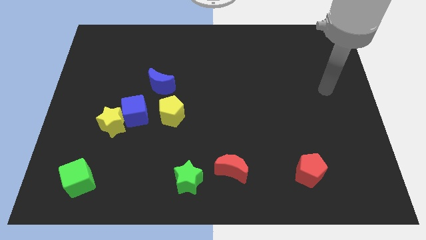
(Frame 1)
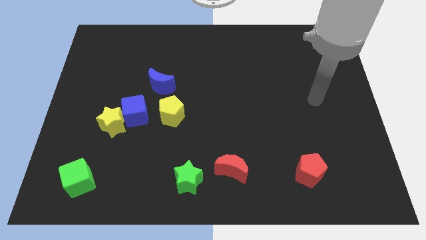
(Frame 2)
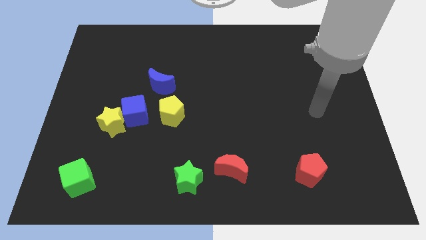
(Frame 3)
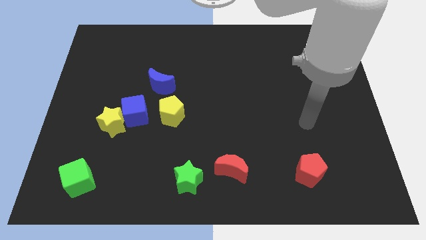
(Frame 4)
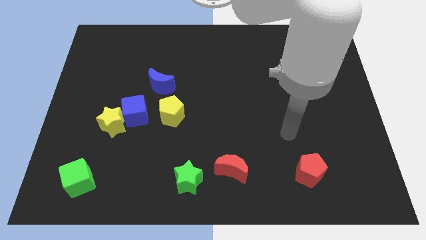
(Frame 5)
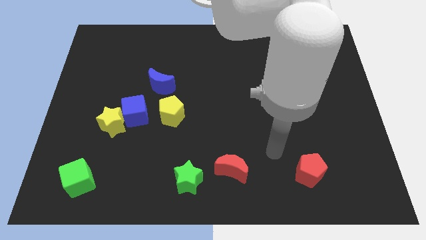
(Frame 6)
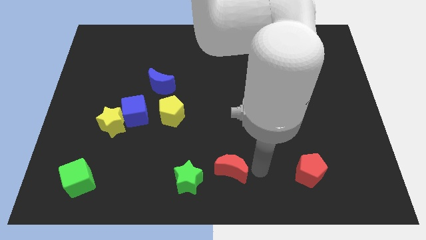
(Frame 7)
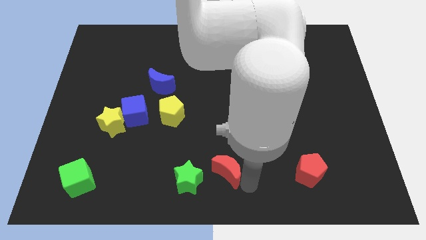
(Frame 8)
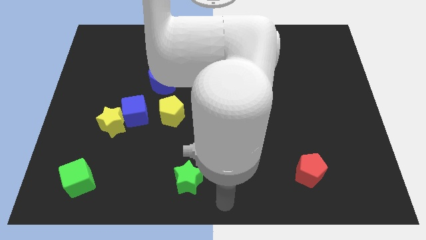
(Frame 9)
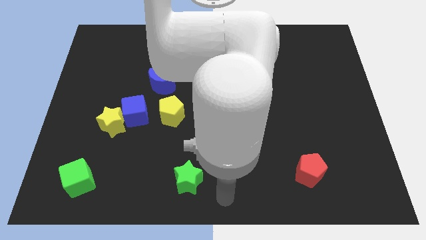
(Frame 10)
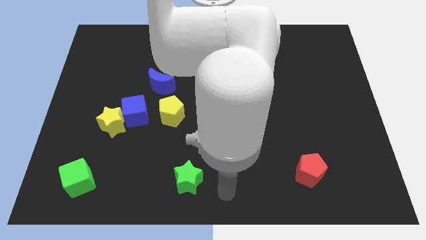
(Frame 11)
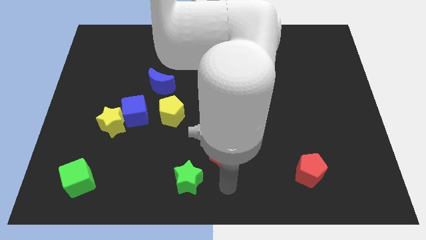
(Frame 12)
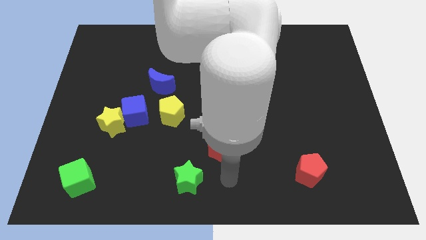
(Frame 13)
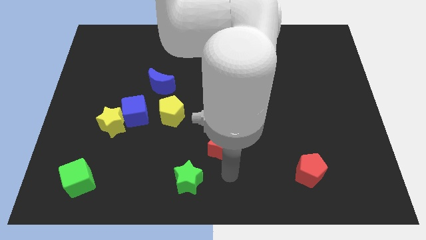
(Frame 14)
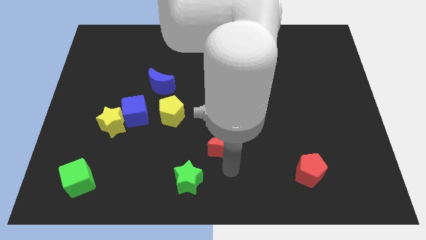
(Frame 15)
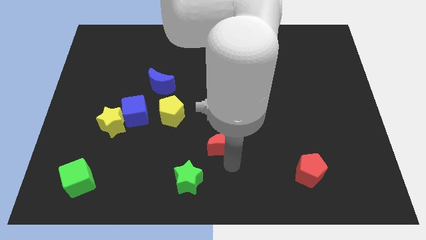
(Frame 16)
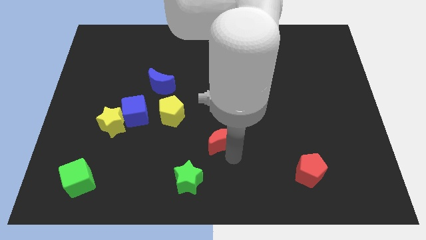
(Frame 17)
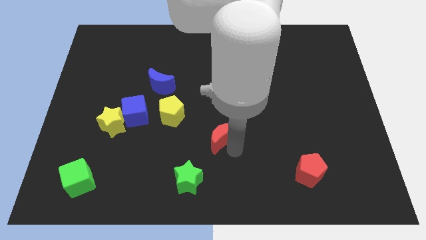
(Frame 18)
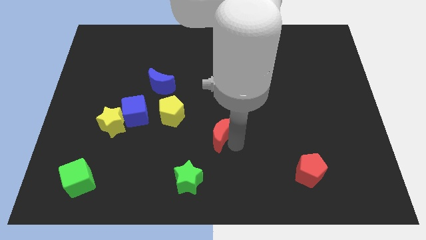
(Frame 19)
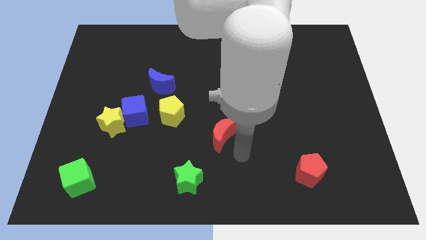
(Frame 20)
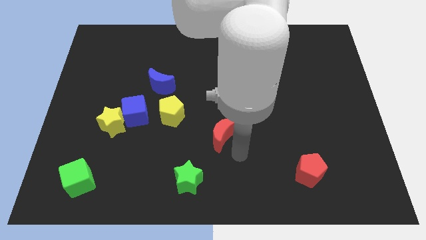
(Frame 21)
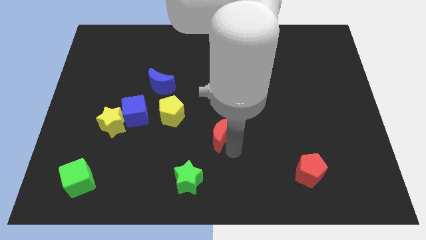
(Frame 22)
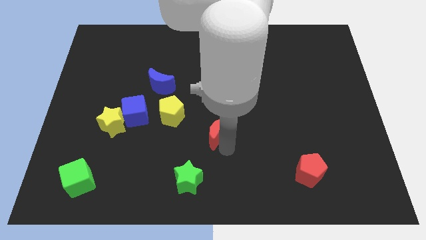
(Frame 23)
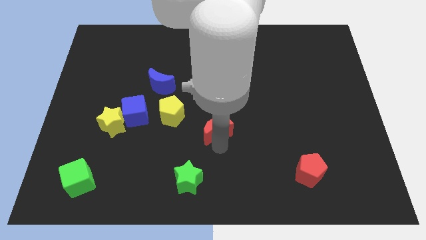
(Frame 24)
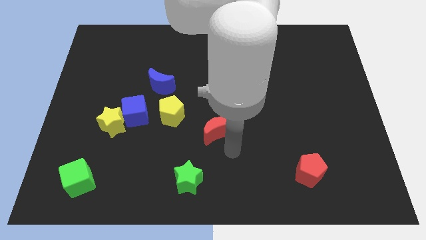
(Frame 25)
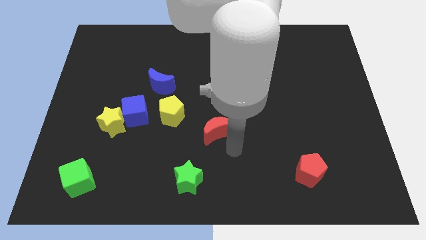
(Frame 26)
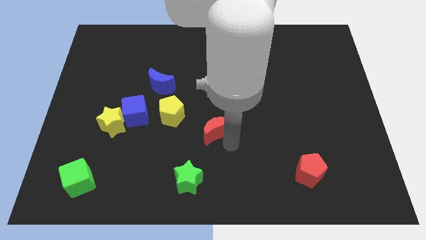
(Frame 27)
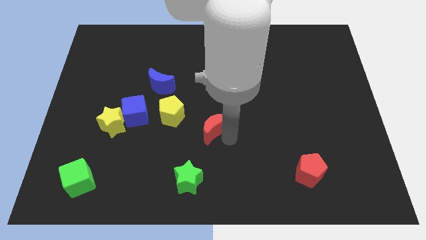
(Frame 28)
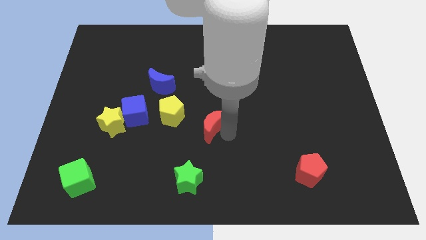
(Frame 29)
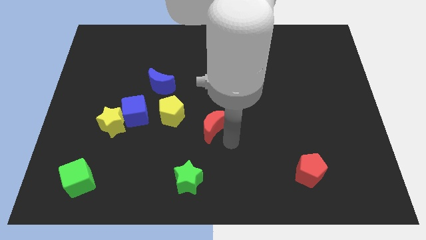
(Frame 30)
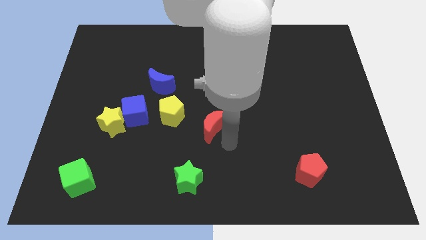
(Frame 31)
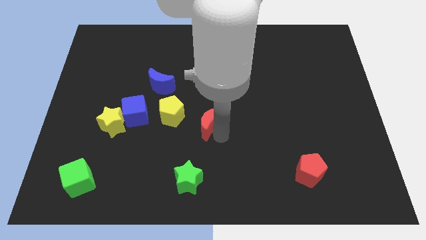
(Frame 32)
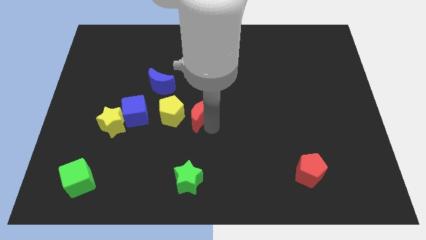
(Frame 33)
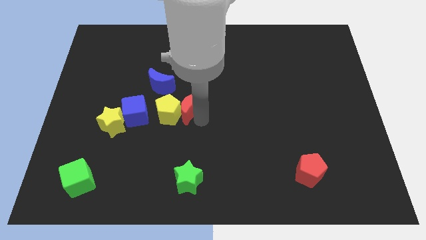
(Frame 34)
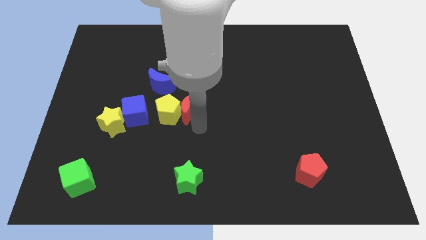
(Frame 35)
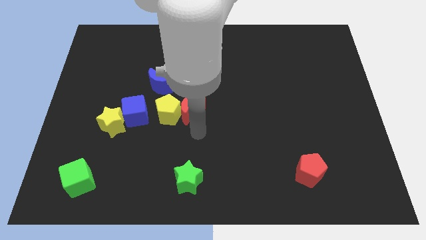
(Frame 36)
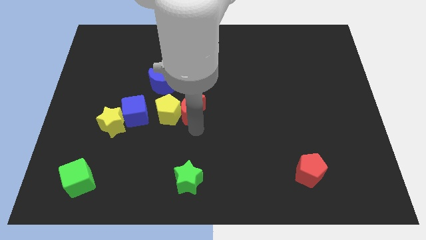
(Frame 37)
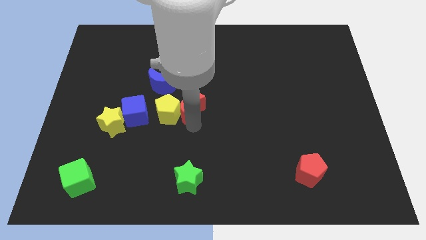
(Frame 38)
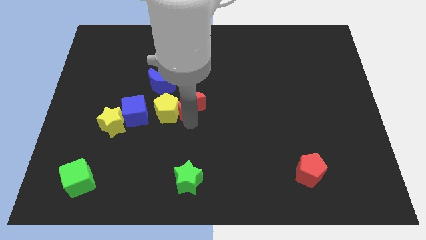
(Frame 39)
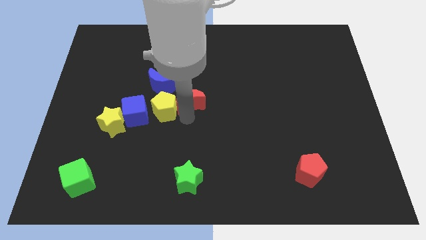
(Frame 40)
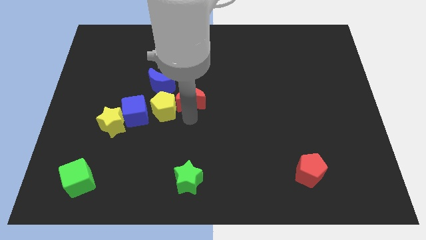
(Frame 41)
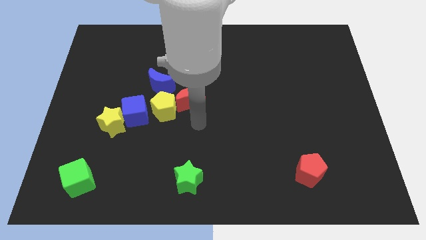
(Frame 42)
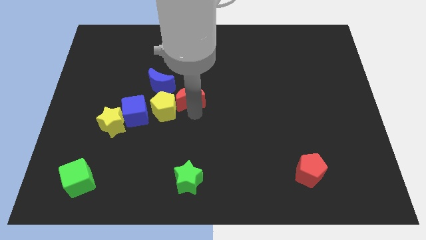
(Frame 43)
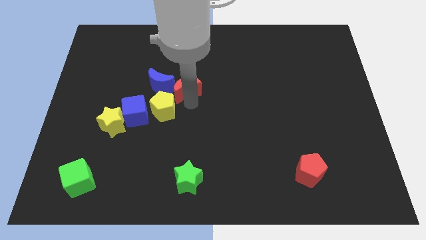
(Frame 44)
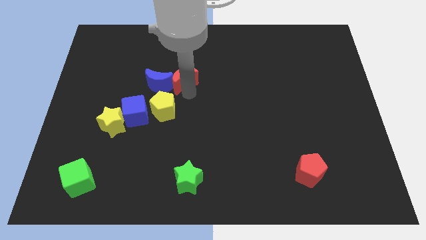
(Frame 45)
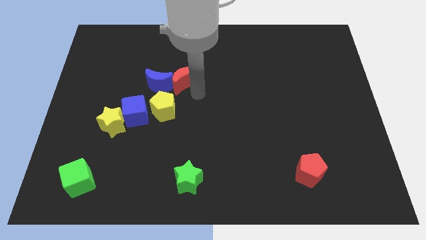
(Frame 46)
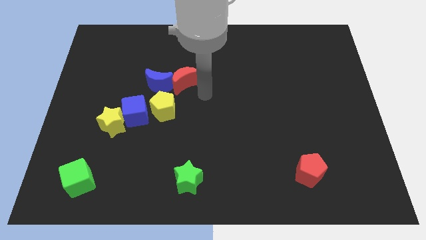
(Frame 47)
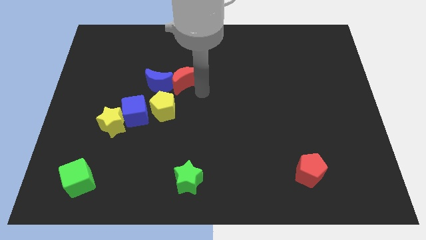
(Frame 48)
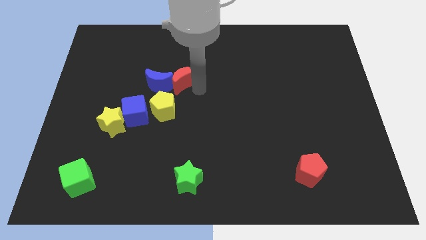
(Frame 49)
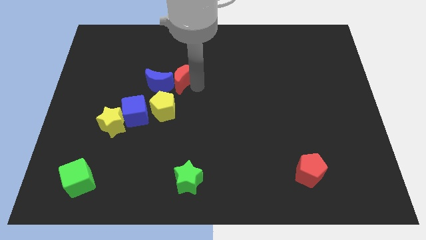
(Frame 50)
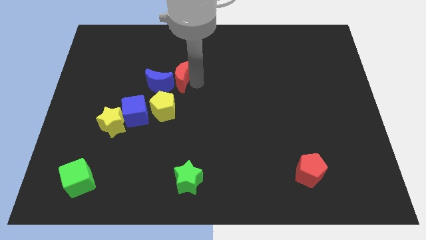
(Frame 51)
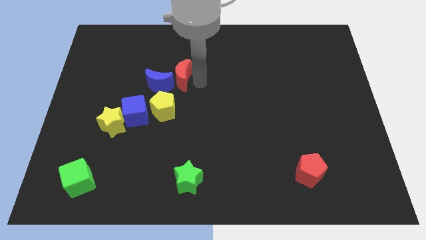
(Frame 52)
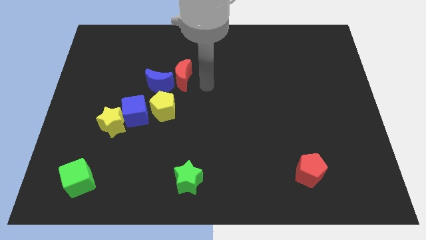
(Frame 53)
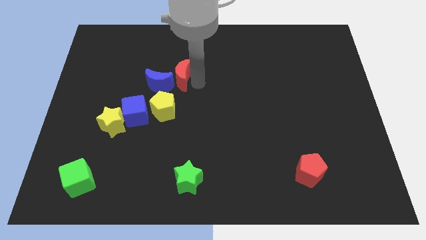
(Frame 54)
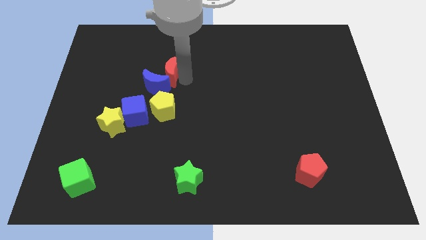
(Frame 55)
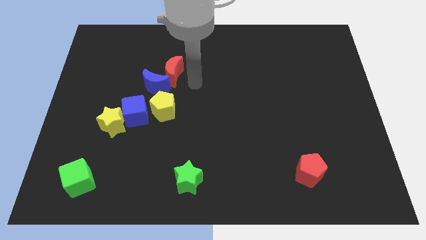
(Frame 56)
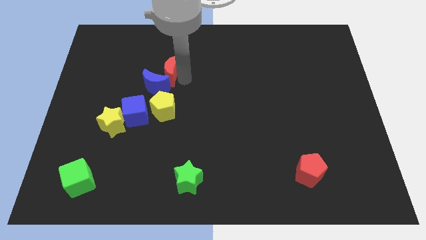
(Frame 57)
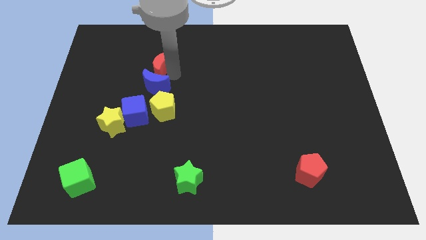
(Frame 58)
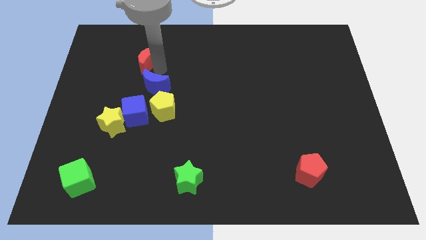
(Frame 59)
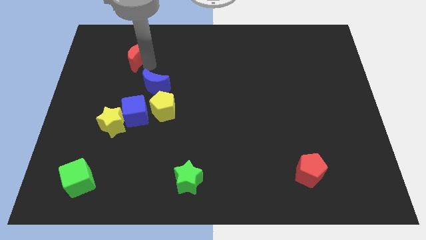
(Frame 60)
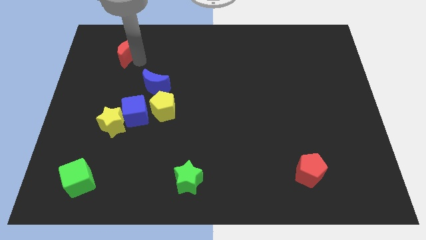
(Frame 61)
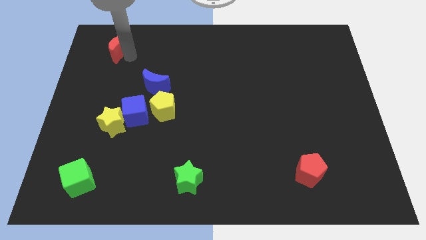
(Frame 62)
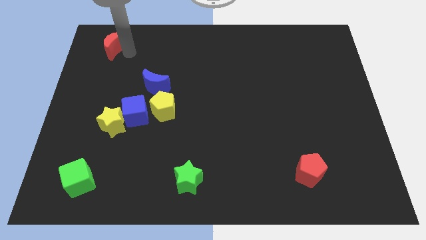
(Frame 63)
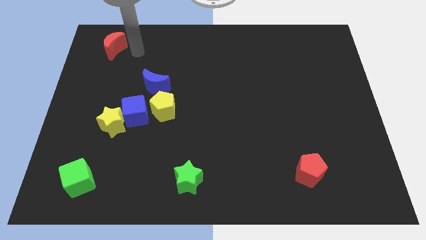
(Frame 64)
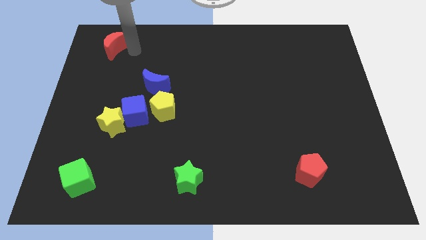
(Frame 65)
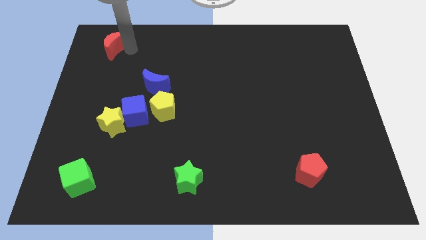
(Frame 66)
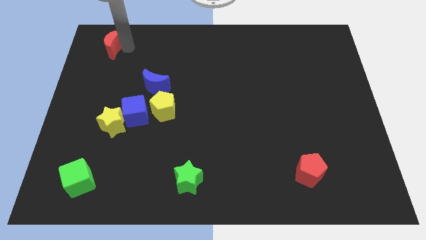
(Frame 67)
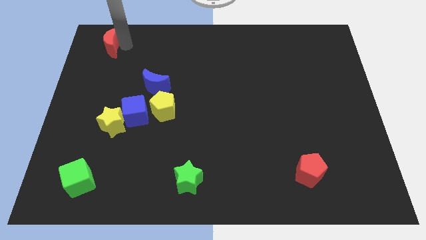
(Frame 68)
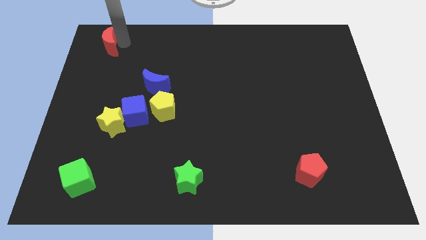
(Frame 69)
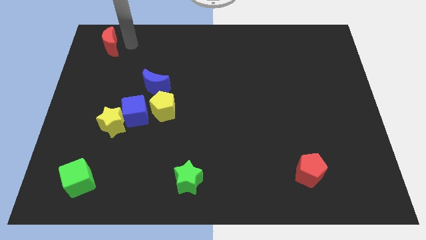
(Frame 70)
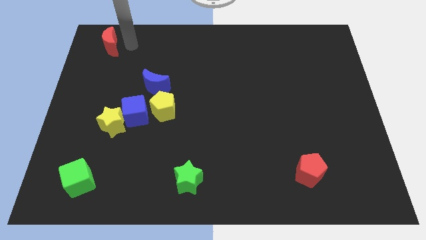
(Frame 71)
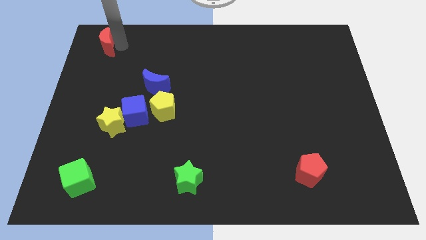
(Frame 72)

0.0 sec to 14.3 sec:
push the red moon to the top left
